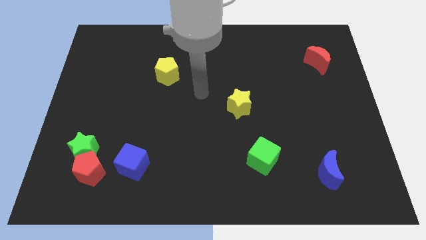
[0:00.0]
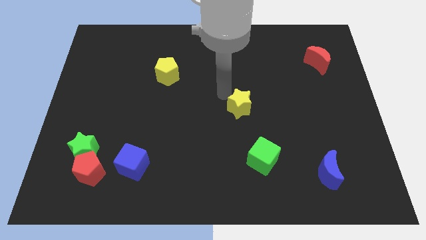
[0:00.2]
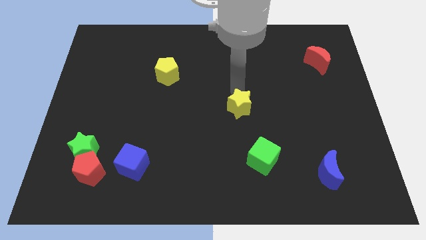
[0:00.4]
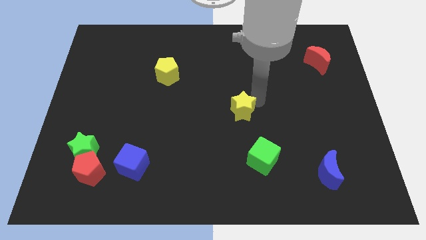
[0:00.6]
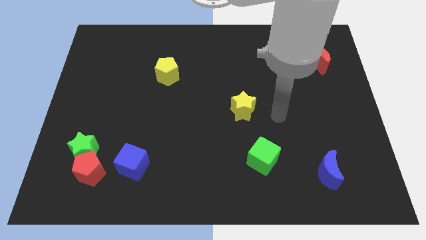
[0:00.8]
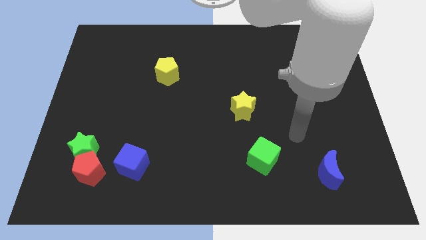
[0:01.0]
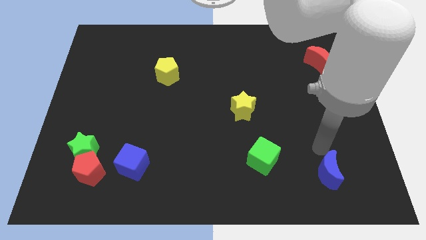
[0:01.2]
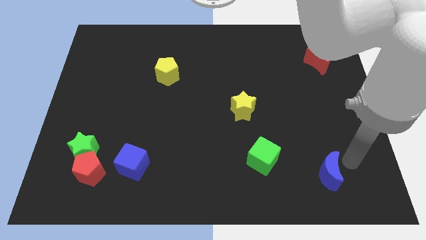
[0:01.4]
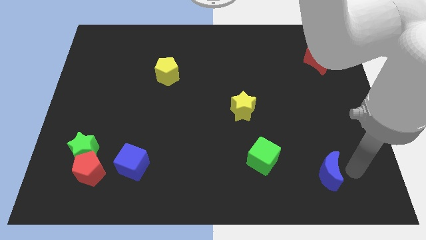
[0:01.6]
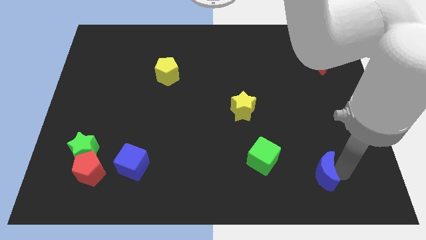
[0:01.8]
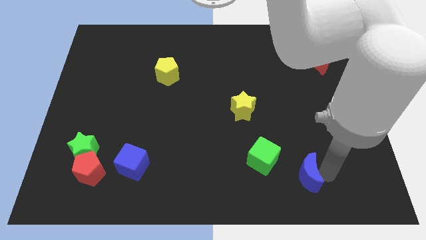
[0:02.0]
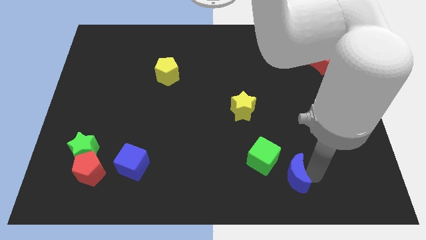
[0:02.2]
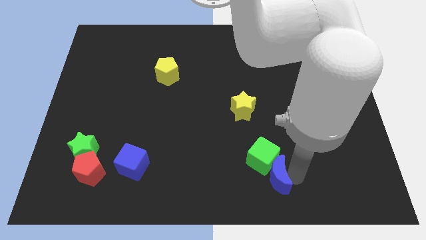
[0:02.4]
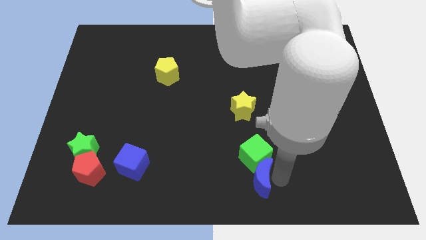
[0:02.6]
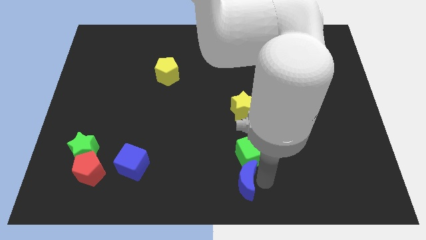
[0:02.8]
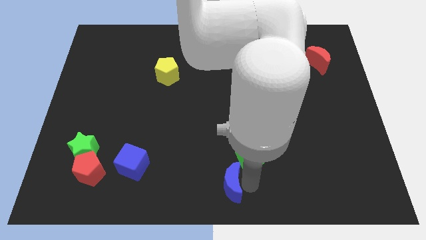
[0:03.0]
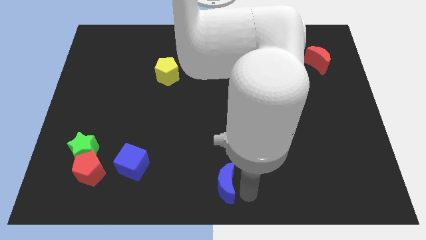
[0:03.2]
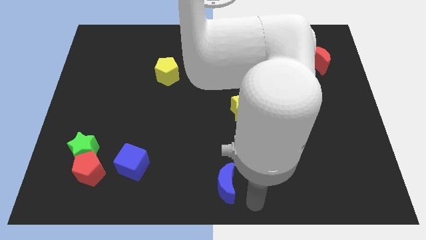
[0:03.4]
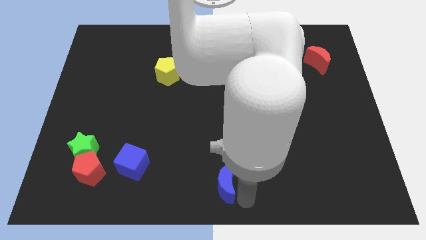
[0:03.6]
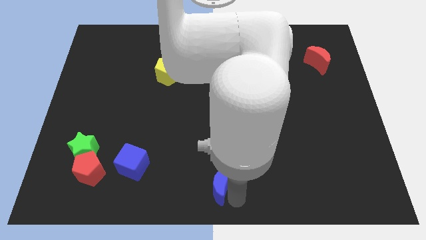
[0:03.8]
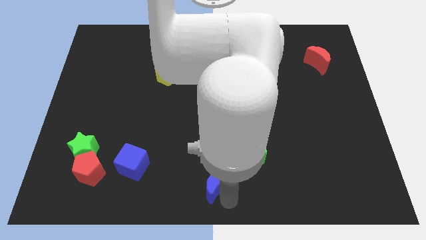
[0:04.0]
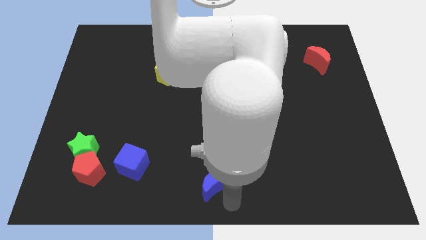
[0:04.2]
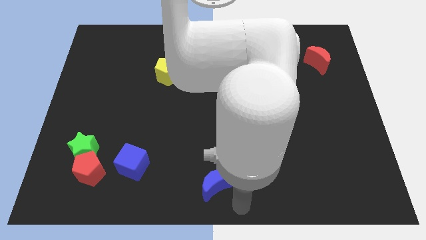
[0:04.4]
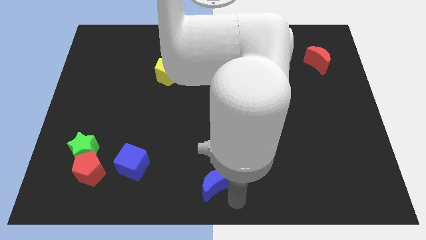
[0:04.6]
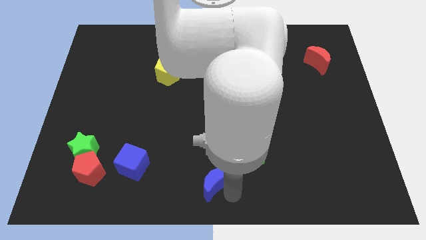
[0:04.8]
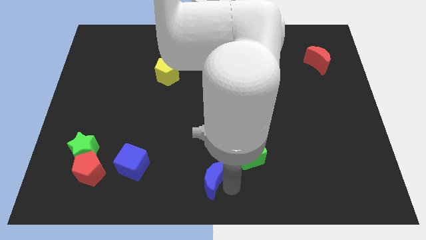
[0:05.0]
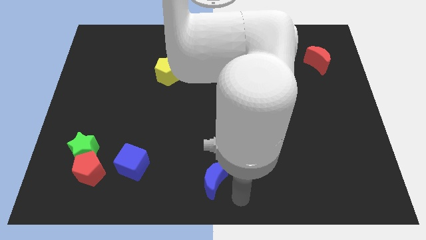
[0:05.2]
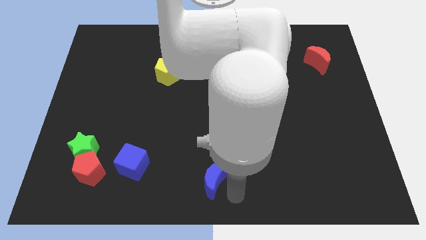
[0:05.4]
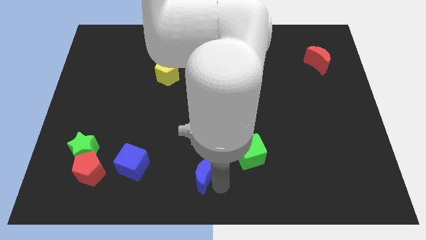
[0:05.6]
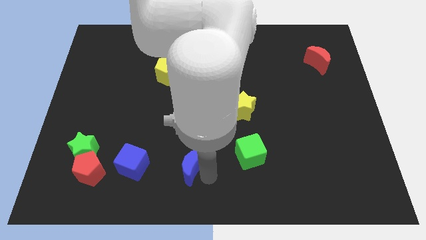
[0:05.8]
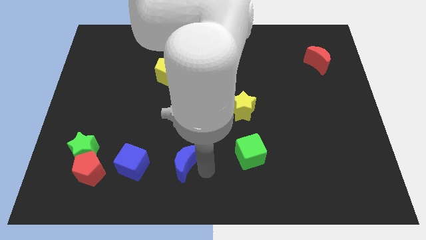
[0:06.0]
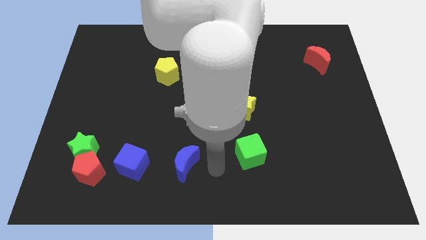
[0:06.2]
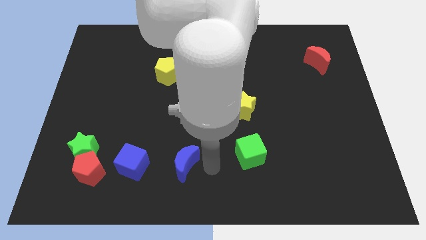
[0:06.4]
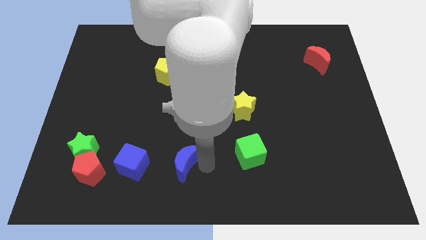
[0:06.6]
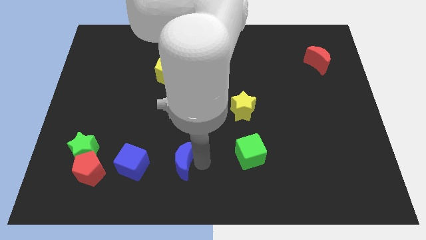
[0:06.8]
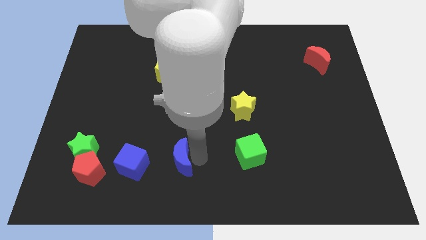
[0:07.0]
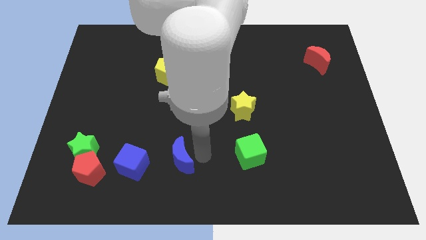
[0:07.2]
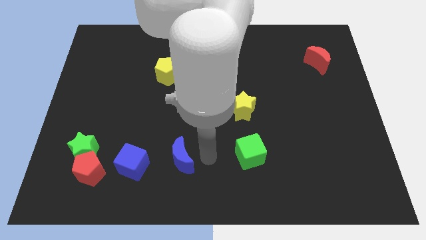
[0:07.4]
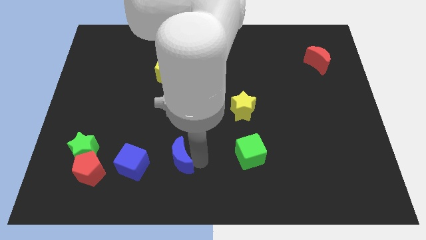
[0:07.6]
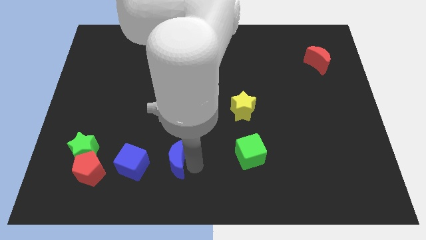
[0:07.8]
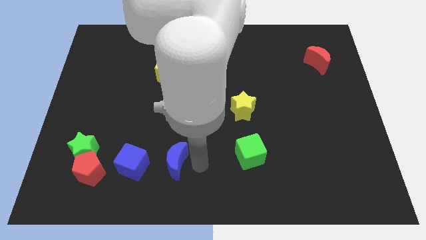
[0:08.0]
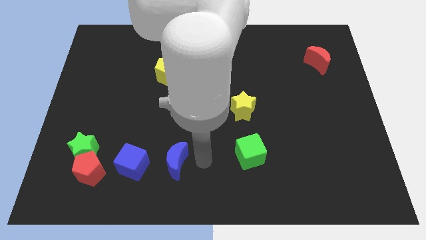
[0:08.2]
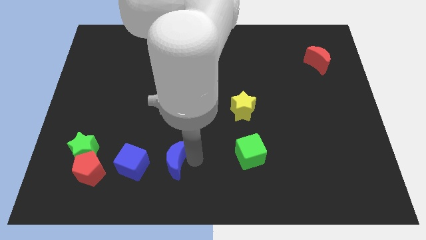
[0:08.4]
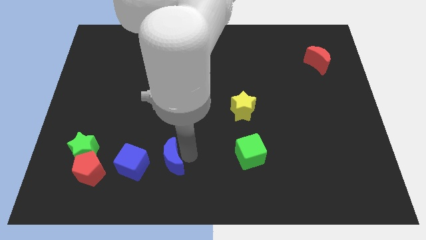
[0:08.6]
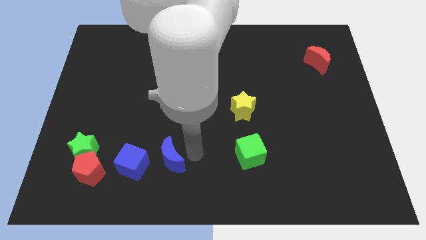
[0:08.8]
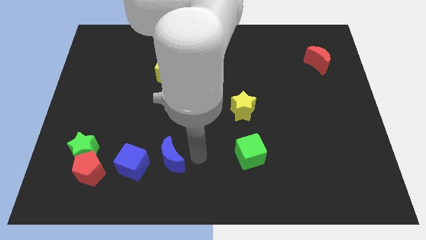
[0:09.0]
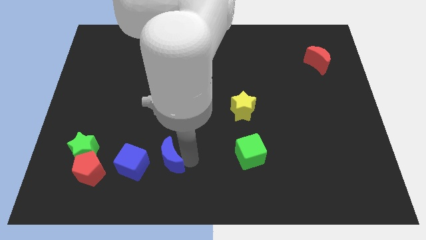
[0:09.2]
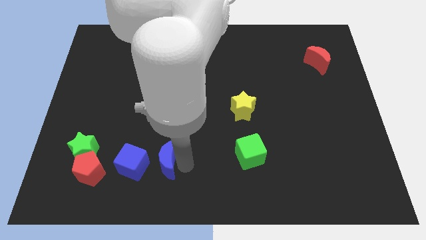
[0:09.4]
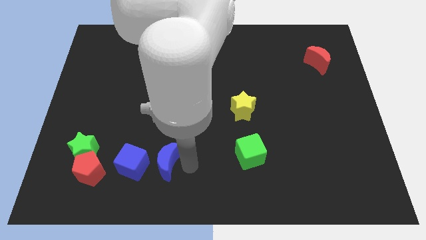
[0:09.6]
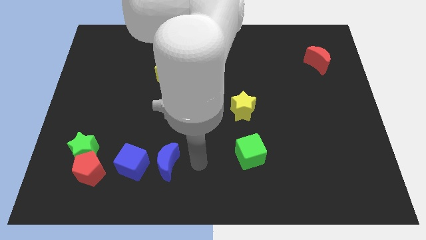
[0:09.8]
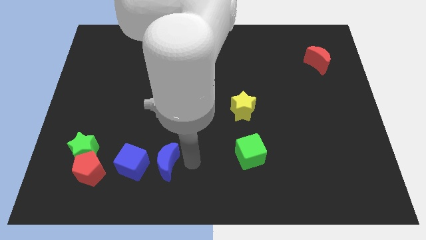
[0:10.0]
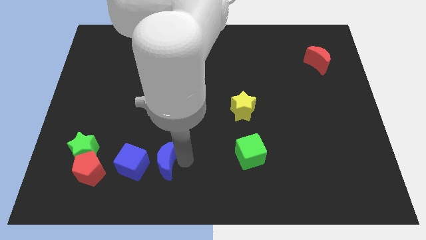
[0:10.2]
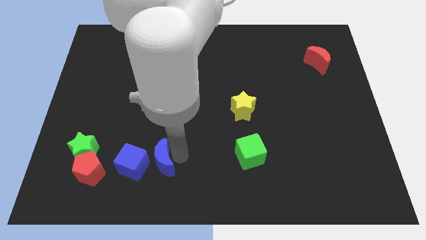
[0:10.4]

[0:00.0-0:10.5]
slide the blue moon next to the blue cube

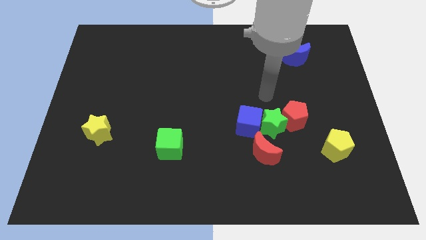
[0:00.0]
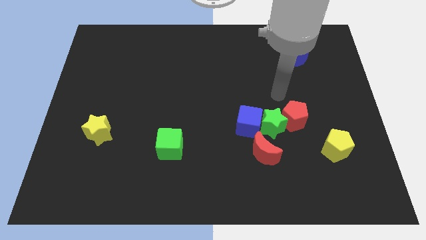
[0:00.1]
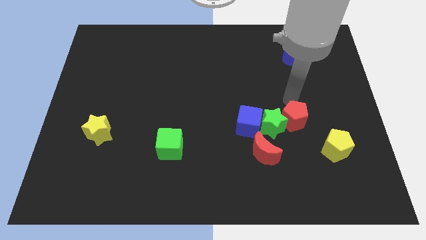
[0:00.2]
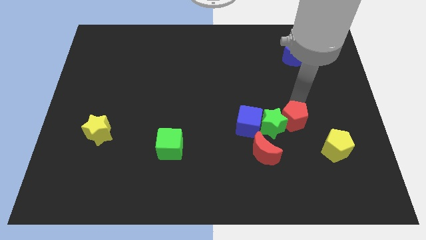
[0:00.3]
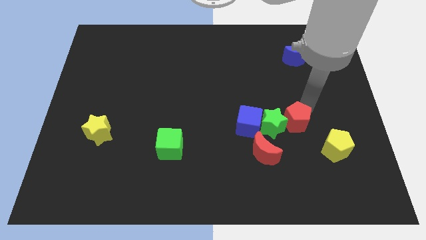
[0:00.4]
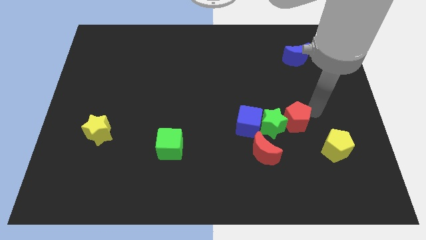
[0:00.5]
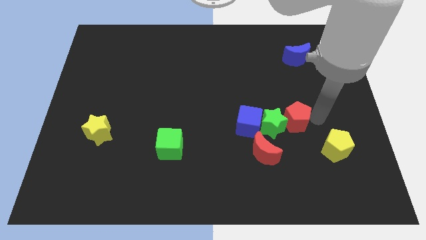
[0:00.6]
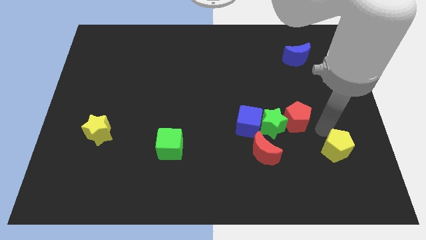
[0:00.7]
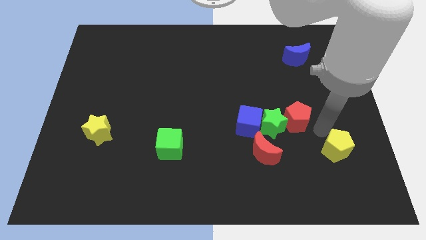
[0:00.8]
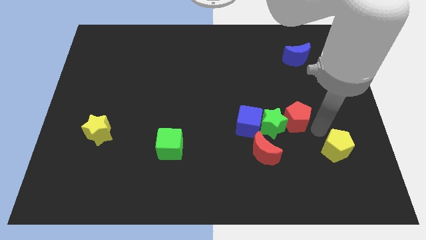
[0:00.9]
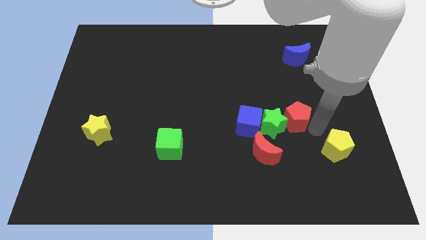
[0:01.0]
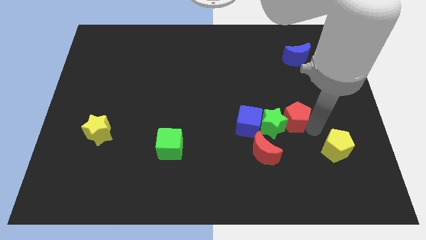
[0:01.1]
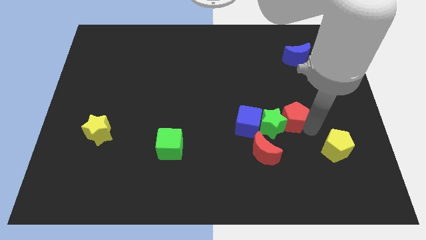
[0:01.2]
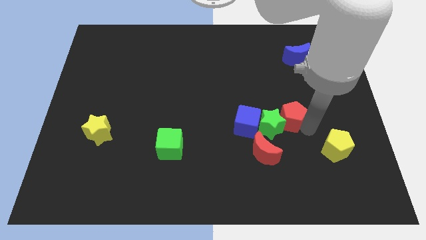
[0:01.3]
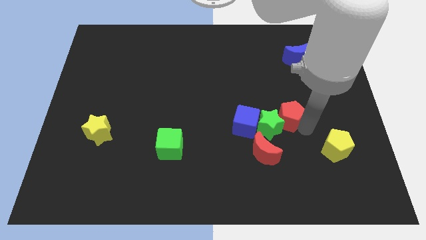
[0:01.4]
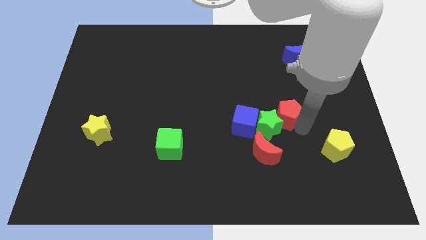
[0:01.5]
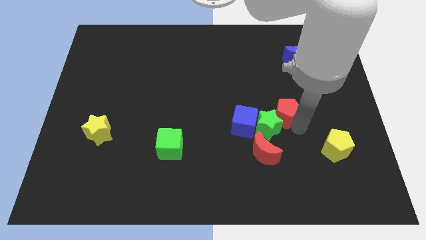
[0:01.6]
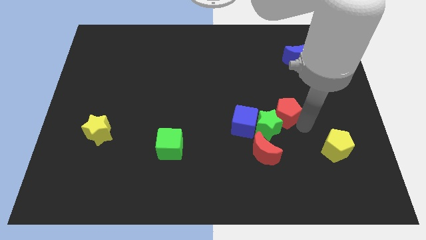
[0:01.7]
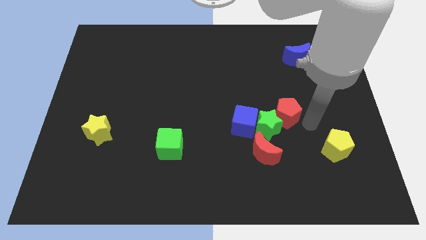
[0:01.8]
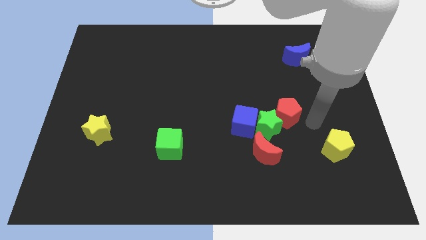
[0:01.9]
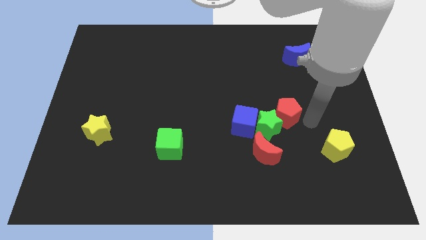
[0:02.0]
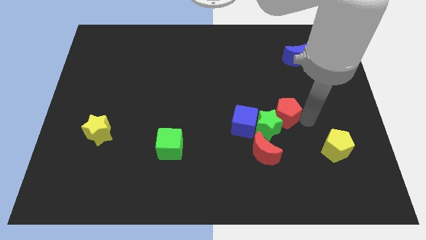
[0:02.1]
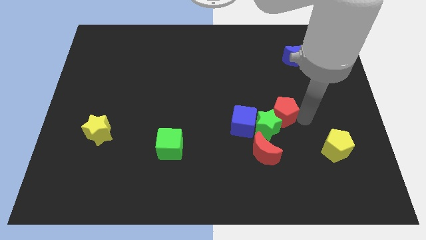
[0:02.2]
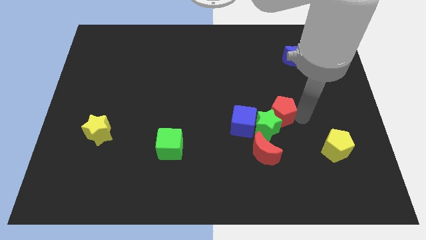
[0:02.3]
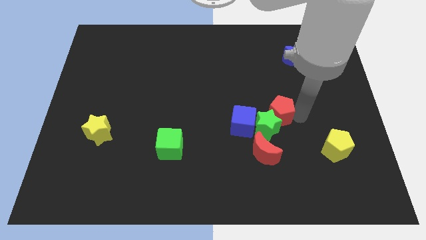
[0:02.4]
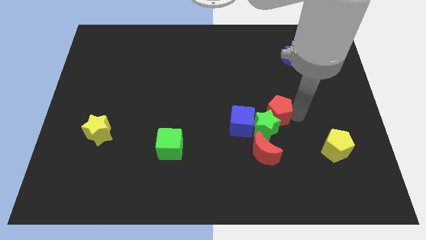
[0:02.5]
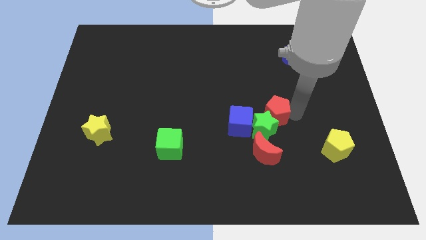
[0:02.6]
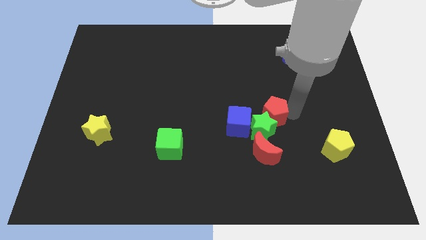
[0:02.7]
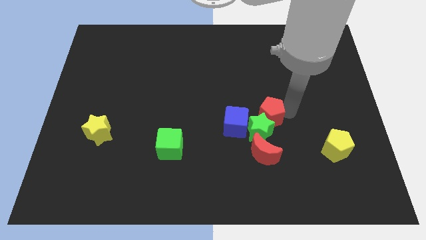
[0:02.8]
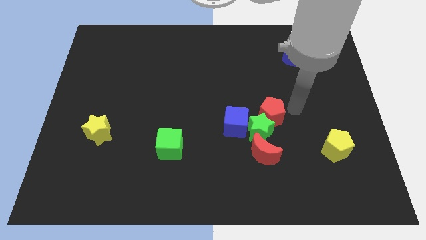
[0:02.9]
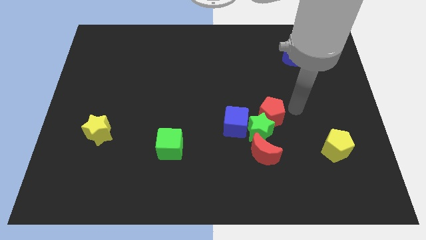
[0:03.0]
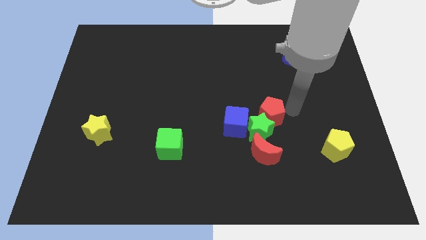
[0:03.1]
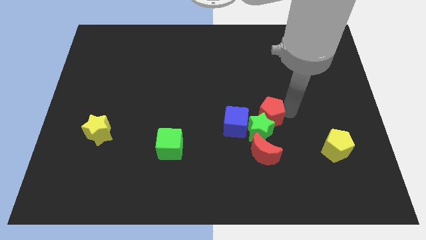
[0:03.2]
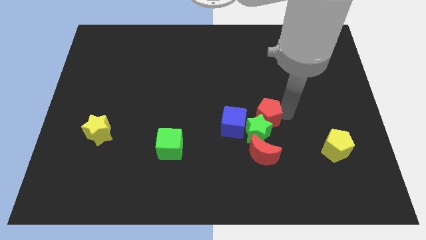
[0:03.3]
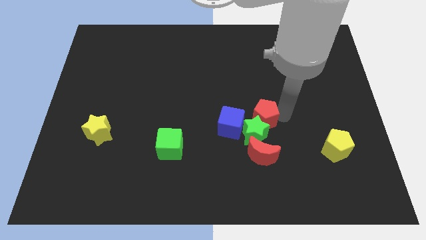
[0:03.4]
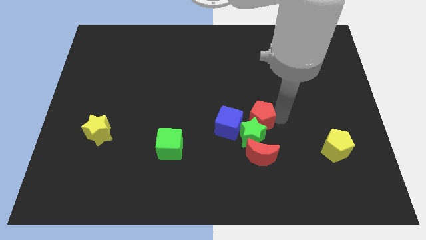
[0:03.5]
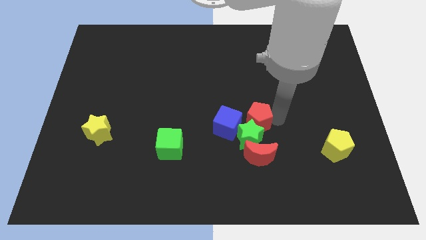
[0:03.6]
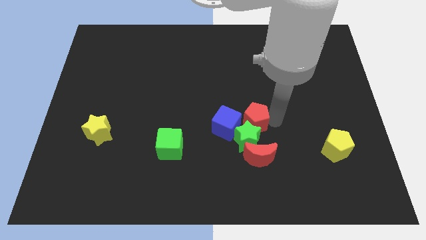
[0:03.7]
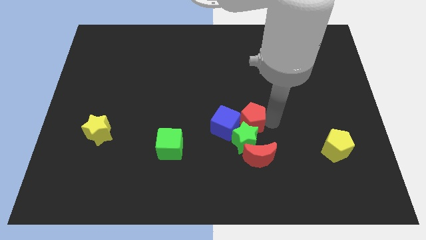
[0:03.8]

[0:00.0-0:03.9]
move the red pentagon close to the blue cube
